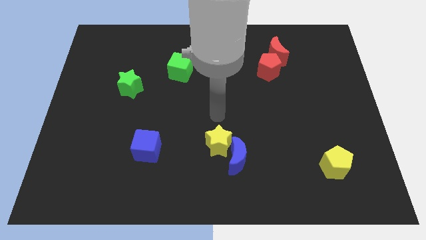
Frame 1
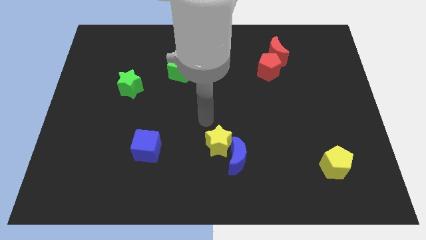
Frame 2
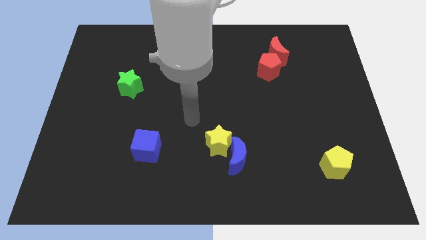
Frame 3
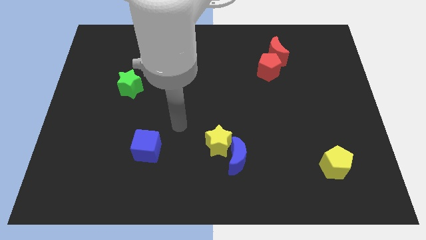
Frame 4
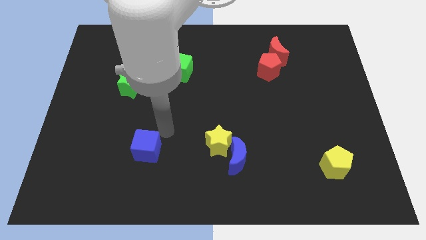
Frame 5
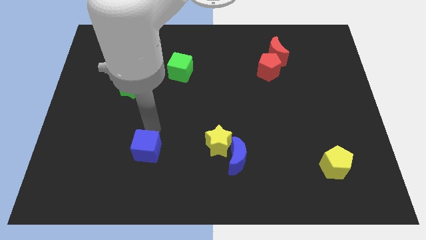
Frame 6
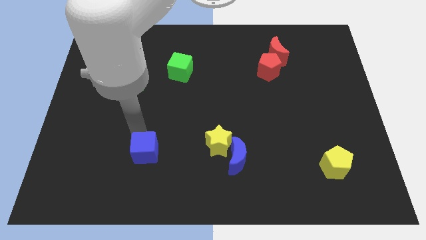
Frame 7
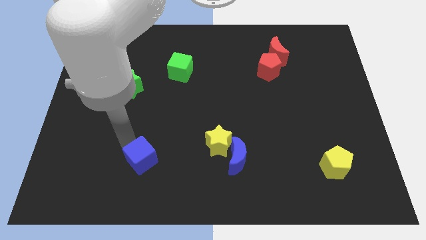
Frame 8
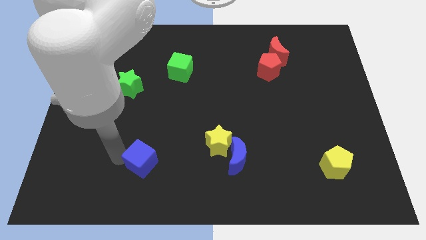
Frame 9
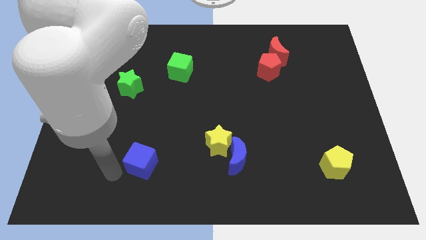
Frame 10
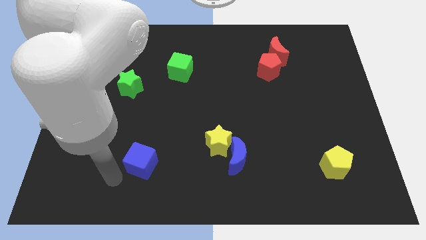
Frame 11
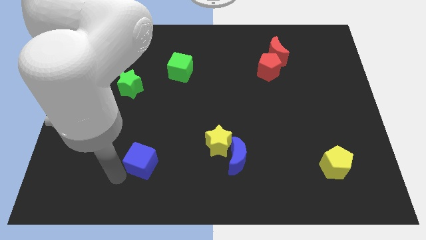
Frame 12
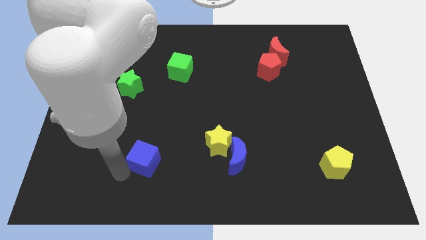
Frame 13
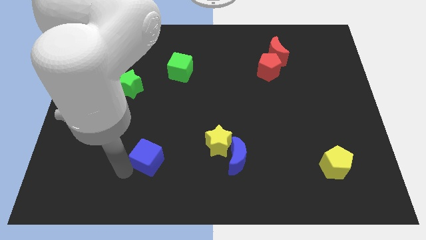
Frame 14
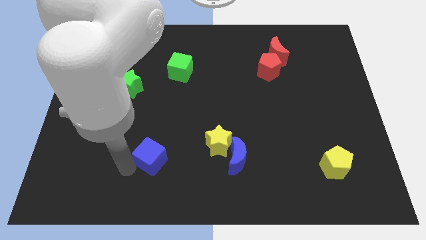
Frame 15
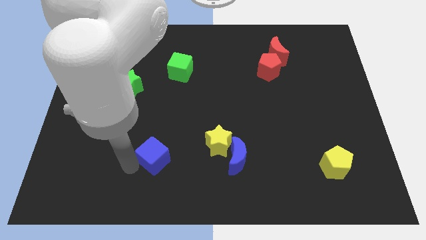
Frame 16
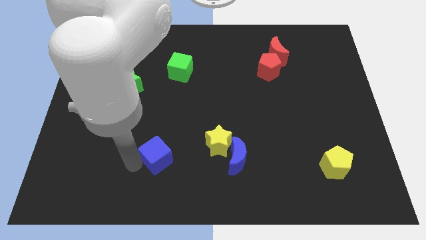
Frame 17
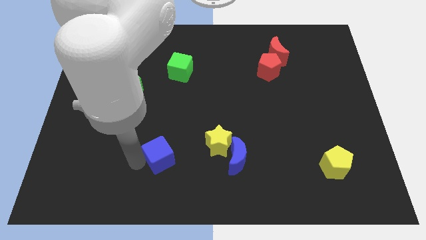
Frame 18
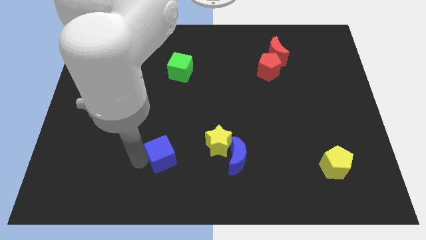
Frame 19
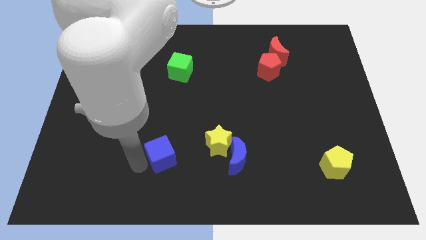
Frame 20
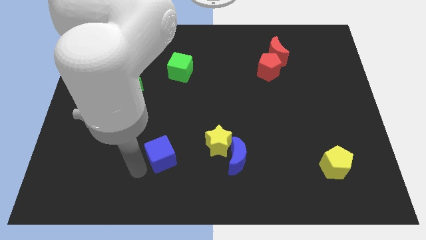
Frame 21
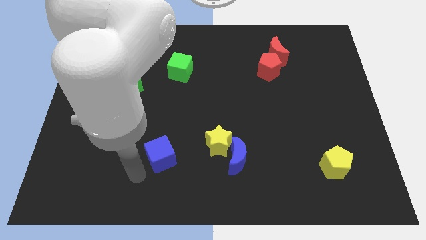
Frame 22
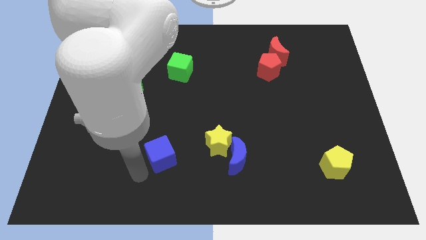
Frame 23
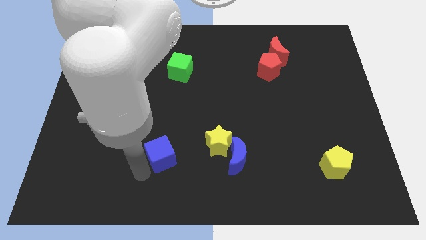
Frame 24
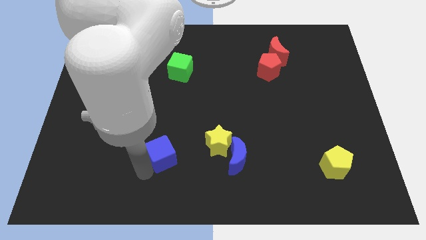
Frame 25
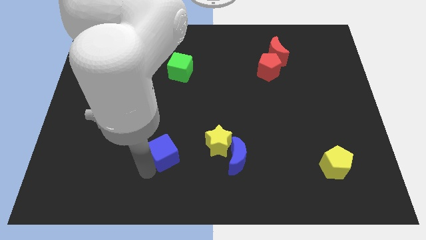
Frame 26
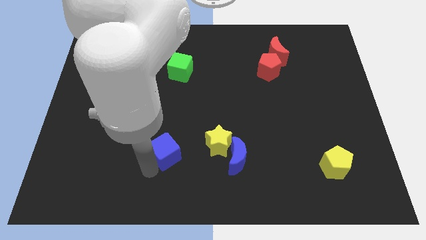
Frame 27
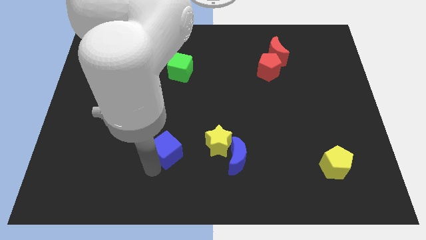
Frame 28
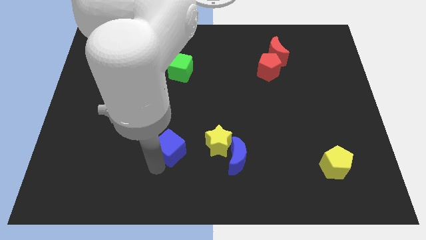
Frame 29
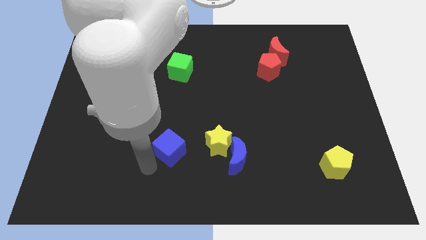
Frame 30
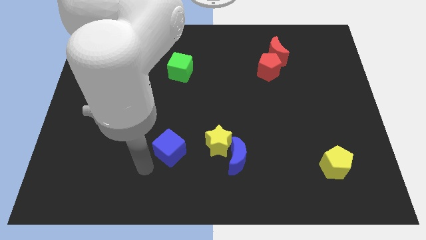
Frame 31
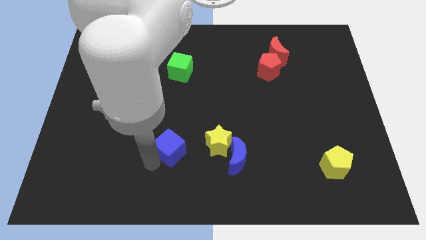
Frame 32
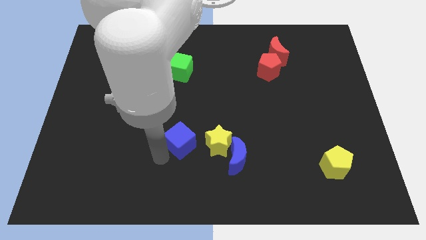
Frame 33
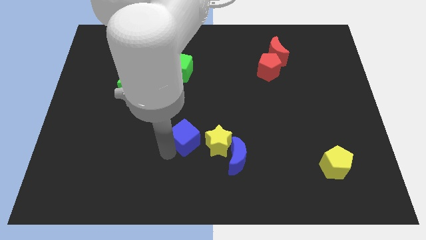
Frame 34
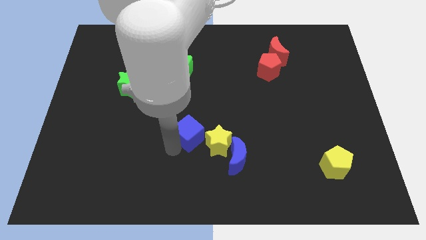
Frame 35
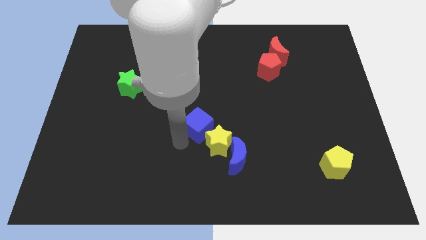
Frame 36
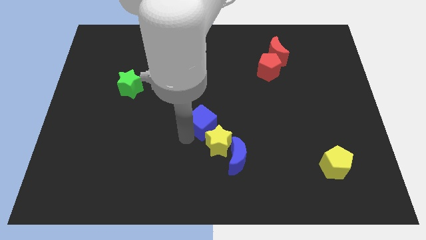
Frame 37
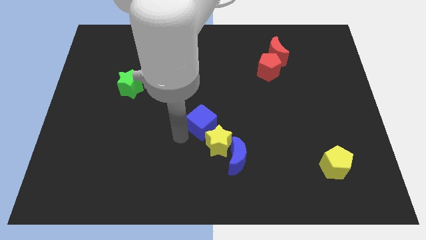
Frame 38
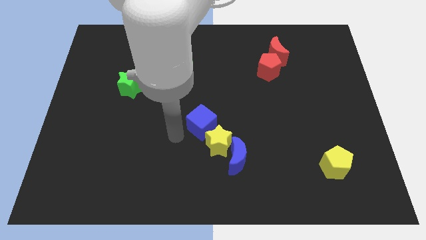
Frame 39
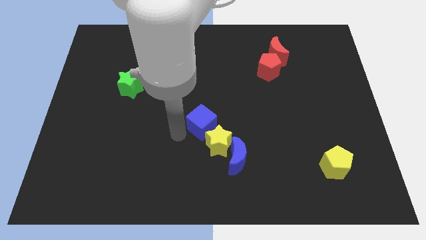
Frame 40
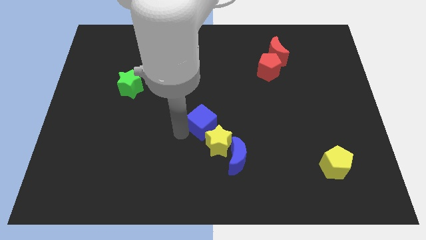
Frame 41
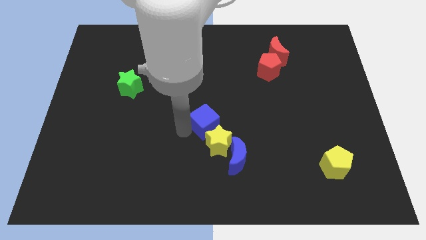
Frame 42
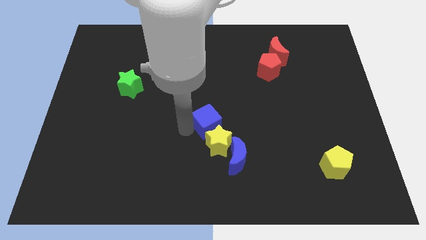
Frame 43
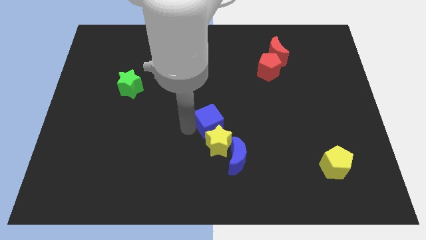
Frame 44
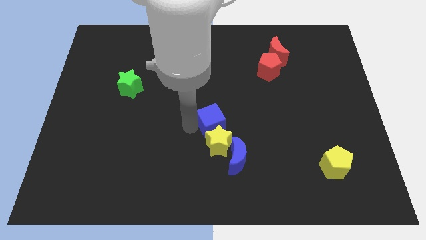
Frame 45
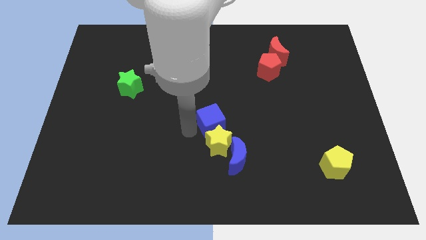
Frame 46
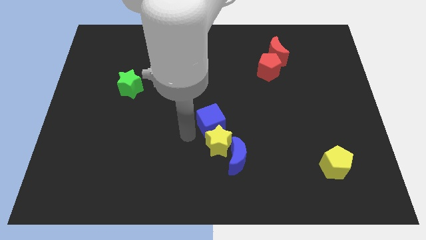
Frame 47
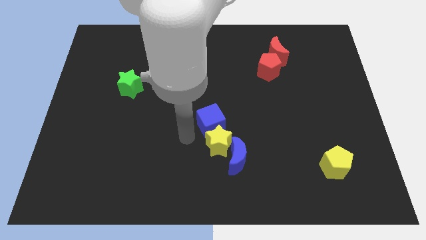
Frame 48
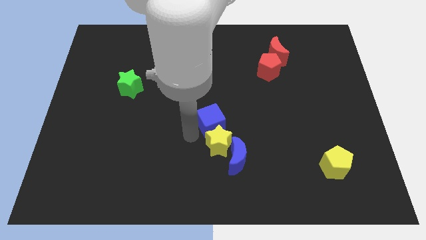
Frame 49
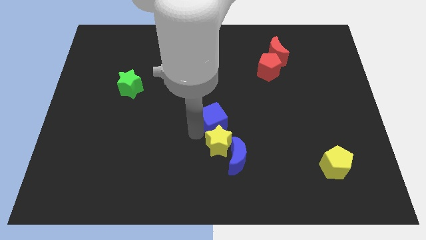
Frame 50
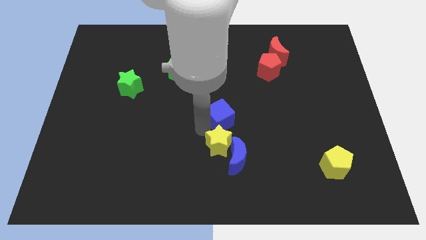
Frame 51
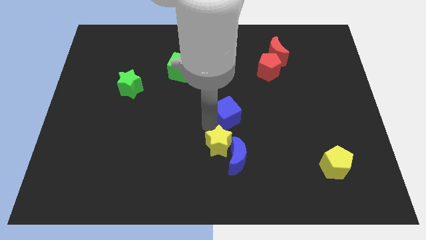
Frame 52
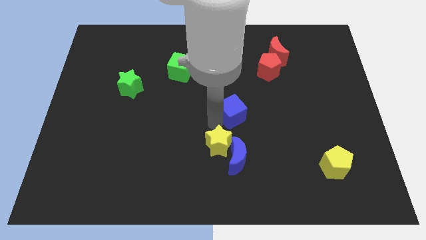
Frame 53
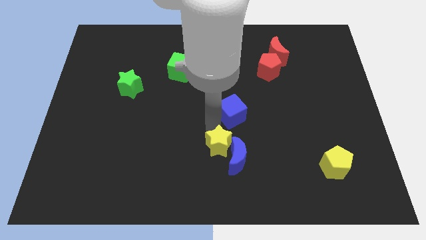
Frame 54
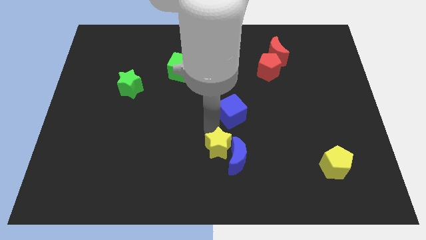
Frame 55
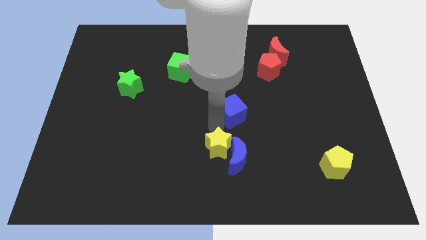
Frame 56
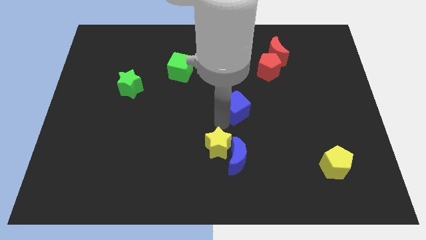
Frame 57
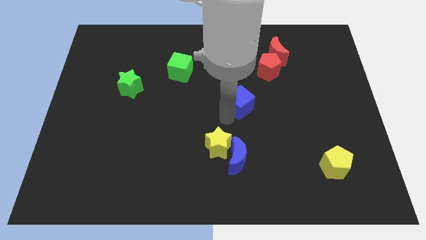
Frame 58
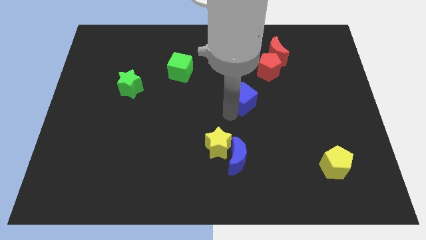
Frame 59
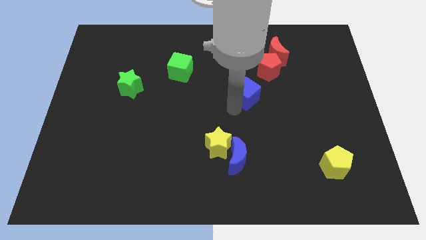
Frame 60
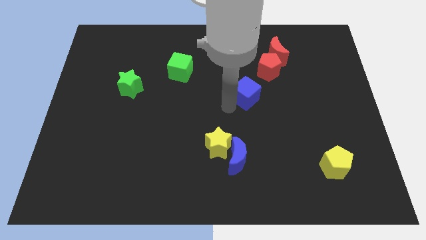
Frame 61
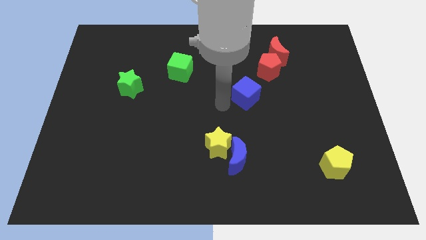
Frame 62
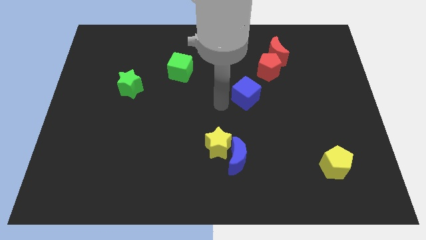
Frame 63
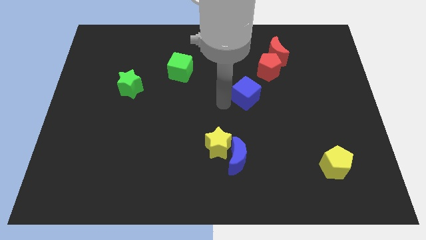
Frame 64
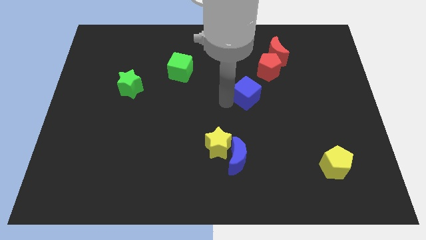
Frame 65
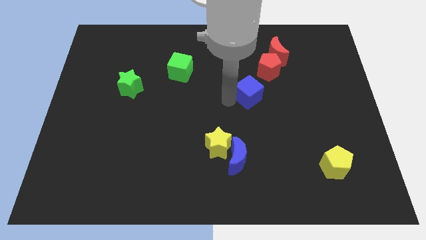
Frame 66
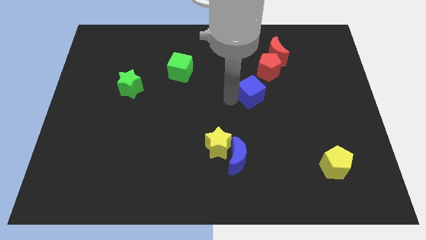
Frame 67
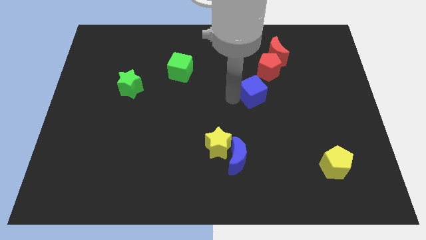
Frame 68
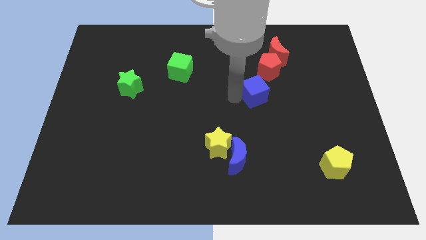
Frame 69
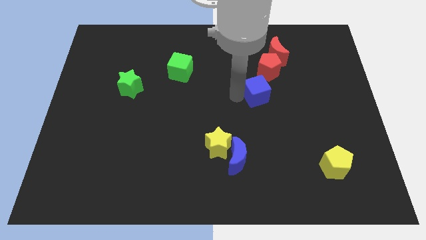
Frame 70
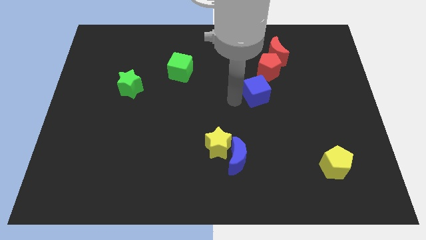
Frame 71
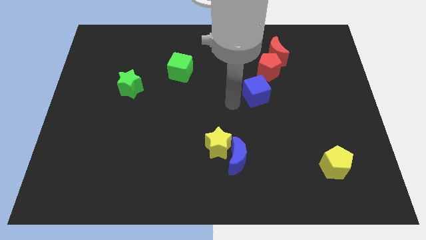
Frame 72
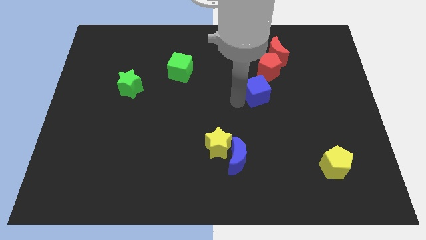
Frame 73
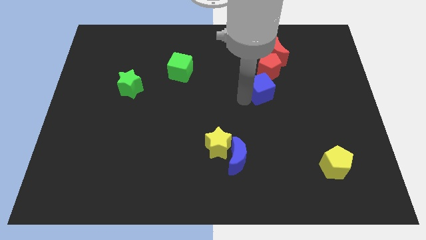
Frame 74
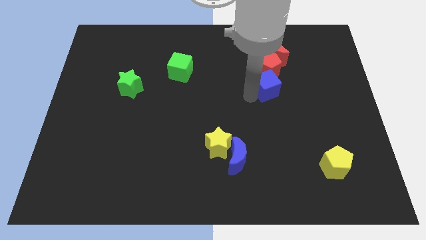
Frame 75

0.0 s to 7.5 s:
push the blue cube below the red moon
